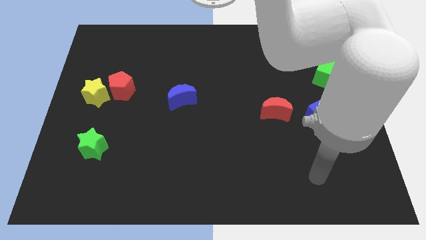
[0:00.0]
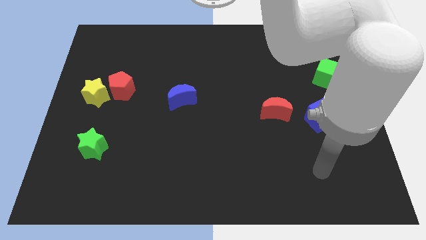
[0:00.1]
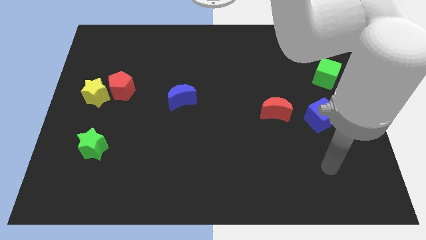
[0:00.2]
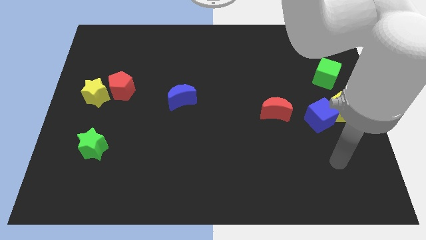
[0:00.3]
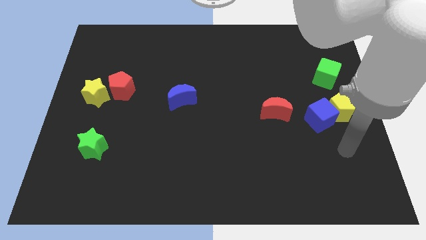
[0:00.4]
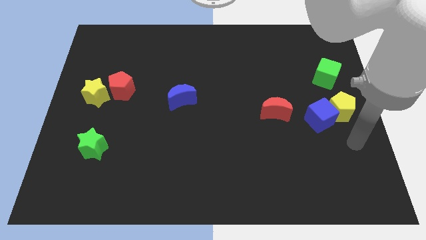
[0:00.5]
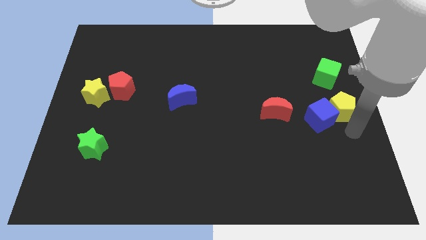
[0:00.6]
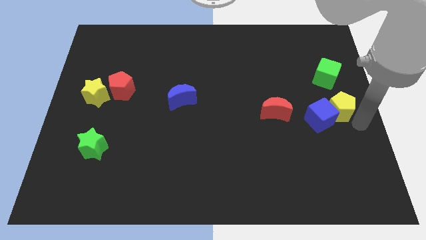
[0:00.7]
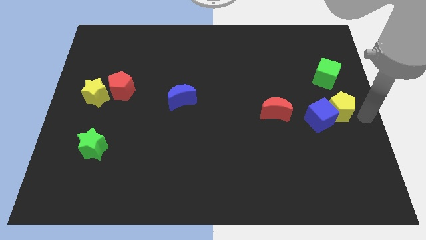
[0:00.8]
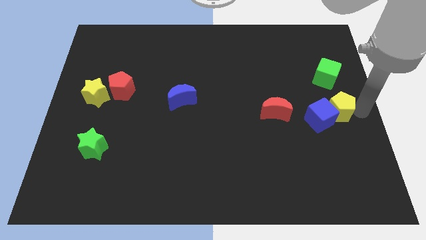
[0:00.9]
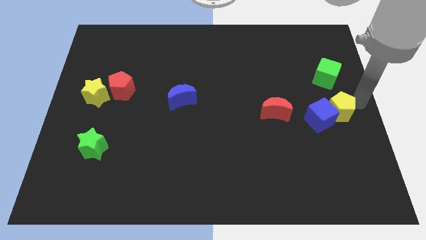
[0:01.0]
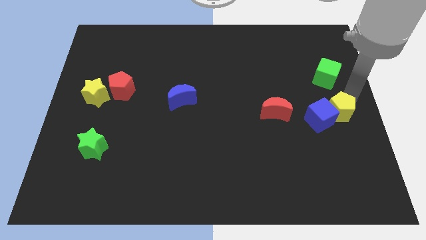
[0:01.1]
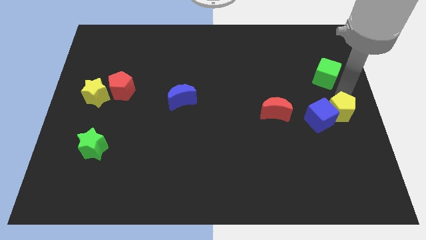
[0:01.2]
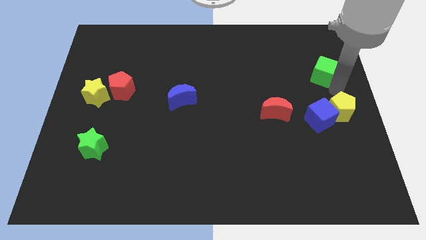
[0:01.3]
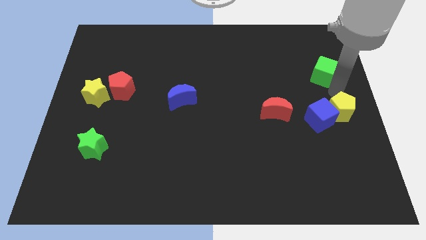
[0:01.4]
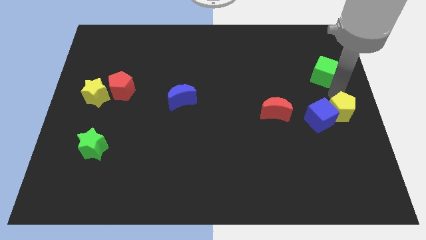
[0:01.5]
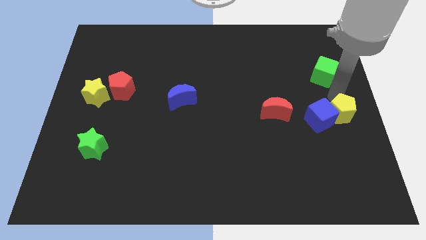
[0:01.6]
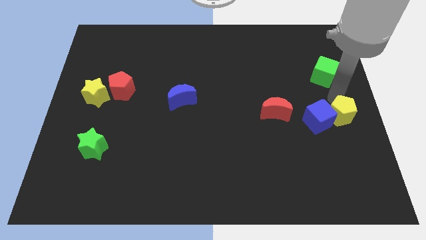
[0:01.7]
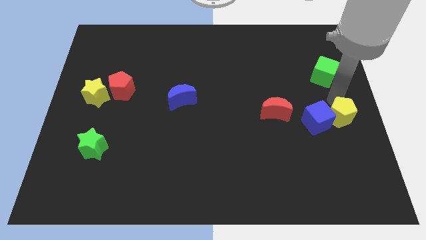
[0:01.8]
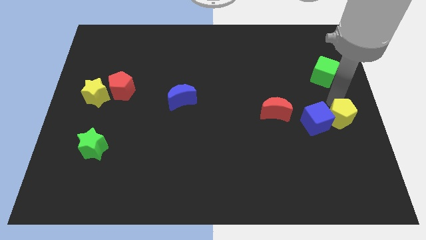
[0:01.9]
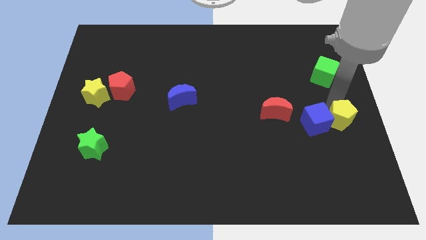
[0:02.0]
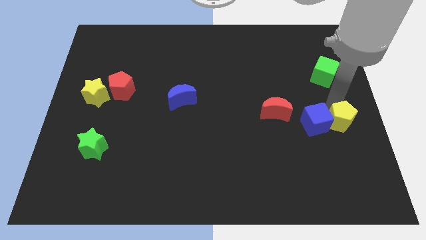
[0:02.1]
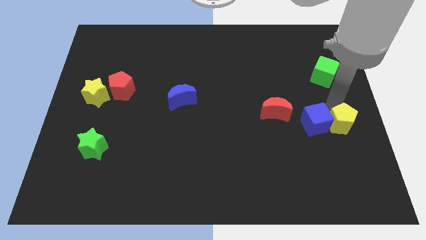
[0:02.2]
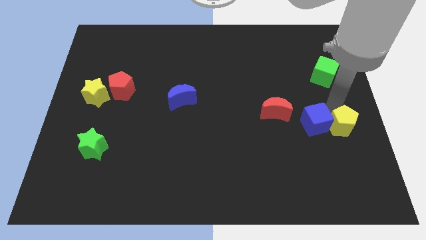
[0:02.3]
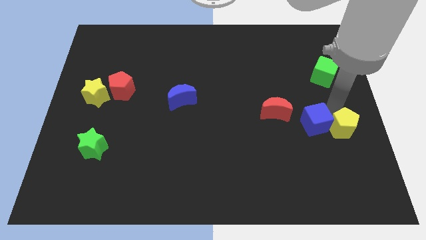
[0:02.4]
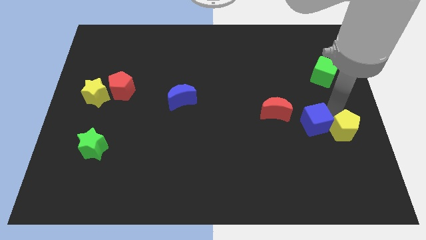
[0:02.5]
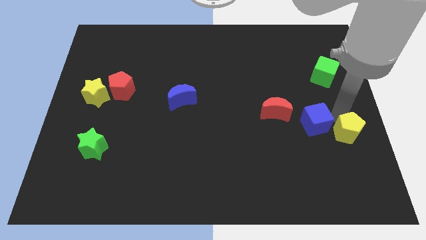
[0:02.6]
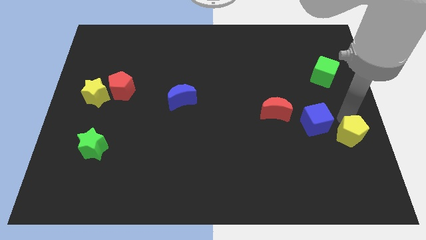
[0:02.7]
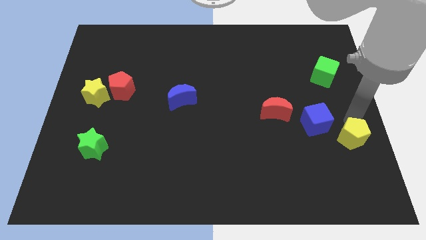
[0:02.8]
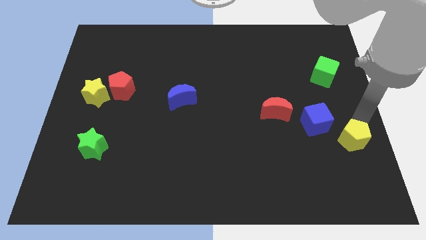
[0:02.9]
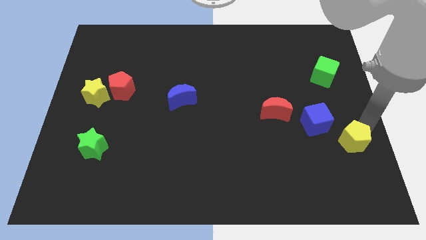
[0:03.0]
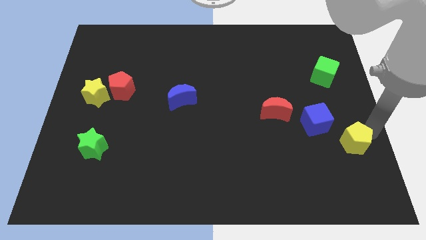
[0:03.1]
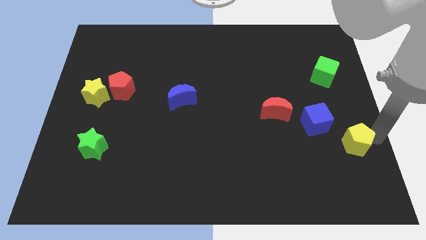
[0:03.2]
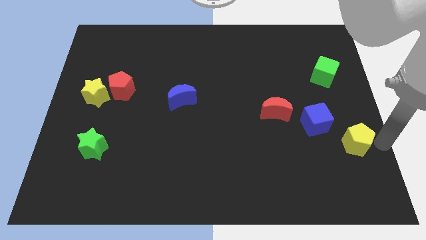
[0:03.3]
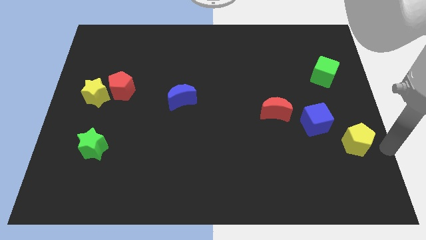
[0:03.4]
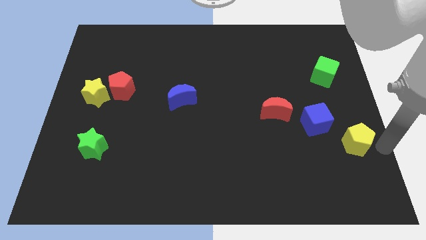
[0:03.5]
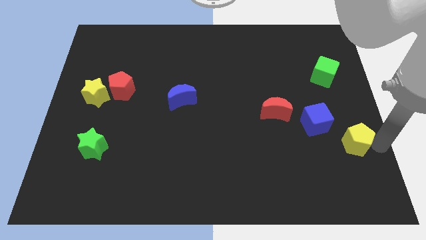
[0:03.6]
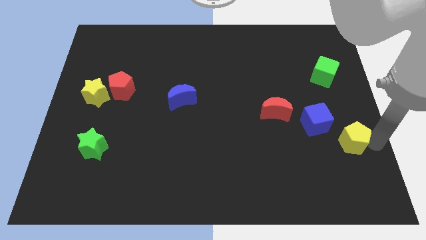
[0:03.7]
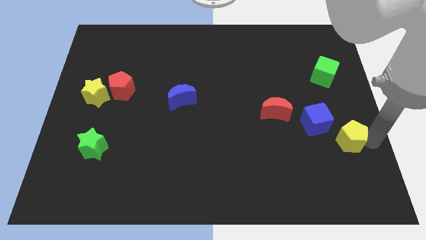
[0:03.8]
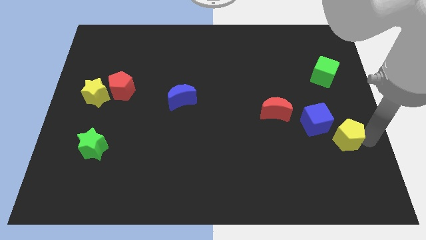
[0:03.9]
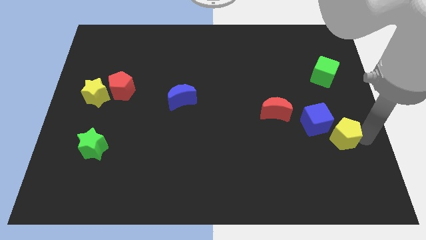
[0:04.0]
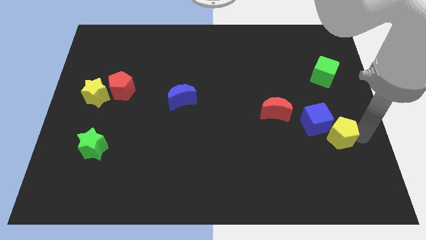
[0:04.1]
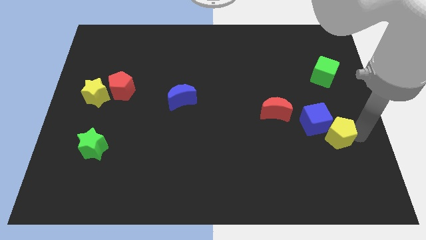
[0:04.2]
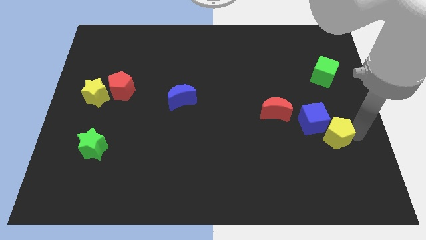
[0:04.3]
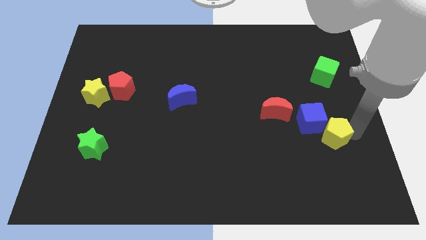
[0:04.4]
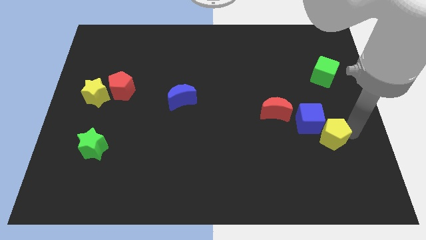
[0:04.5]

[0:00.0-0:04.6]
slightly slide the yellow pentagon down and left

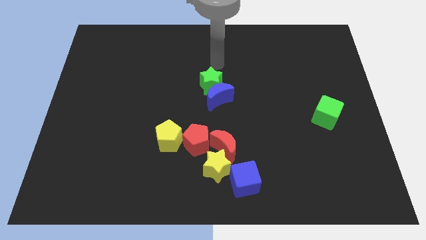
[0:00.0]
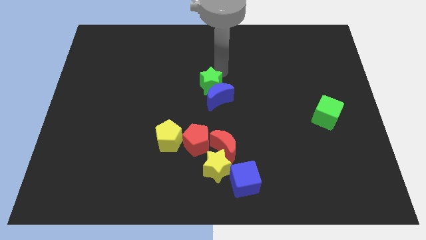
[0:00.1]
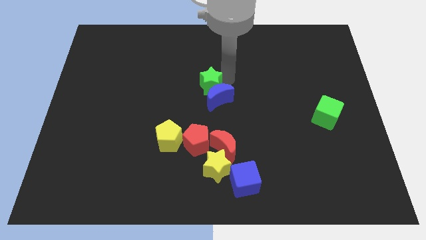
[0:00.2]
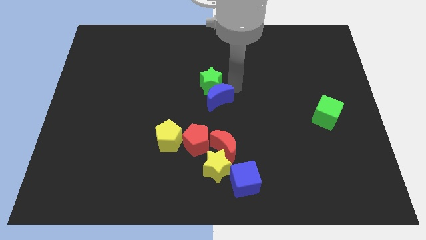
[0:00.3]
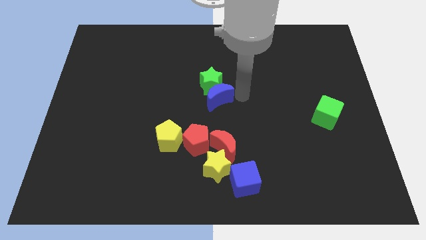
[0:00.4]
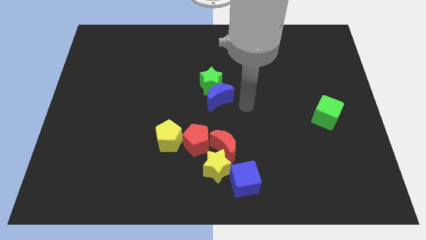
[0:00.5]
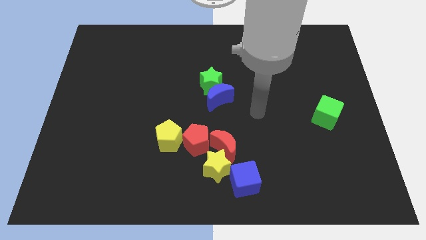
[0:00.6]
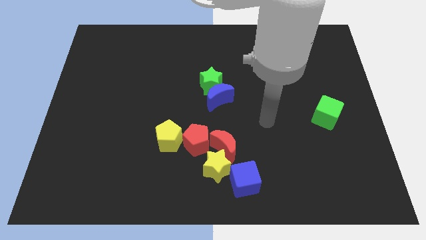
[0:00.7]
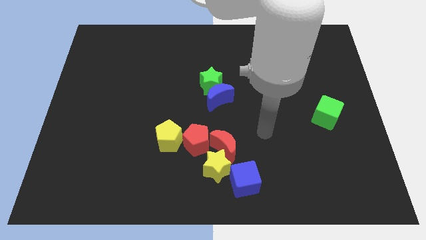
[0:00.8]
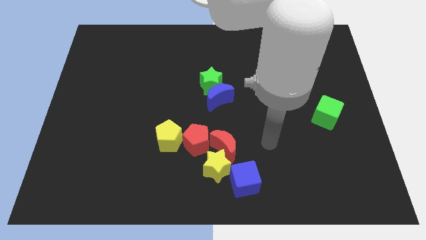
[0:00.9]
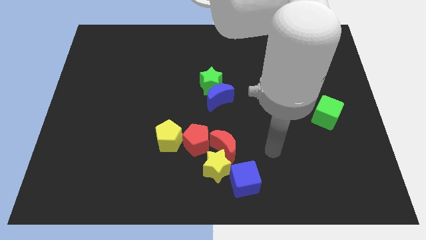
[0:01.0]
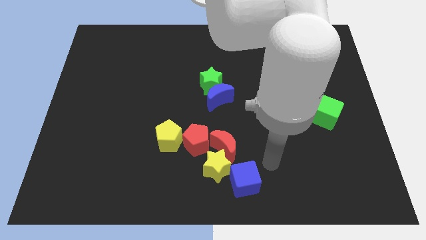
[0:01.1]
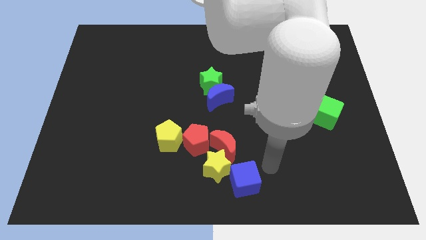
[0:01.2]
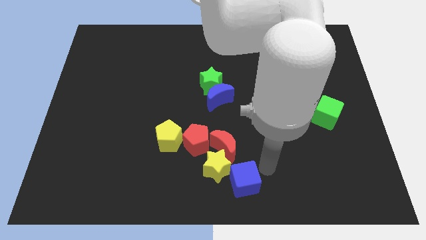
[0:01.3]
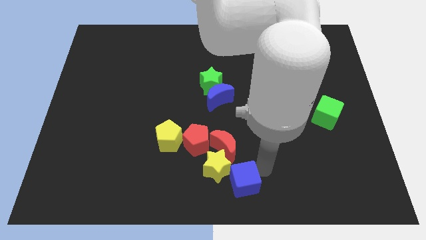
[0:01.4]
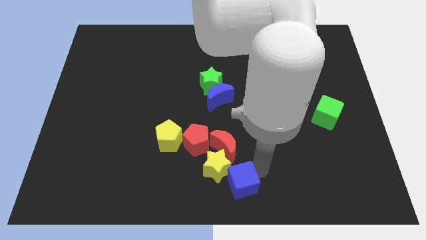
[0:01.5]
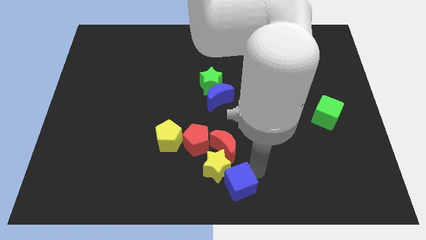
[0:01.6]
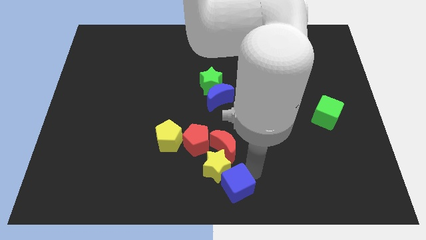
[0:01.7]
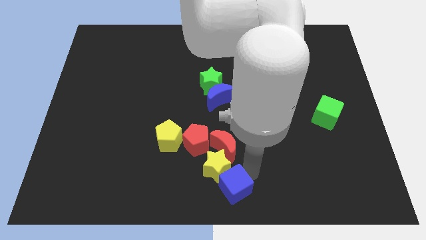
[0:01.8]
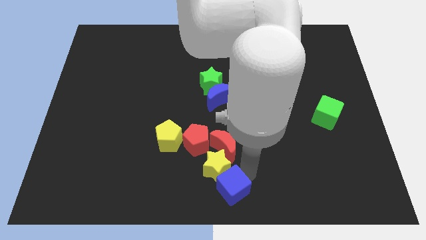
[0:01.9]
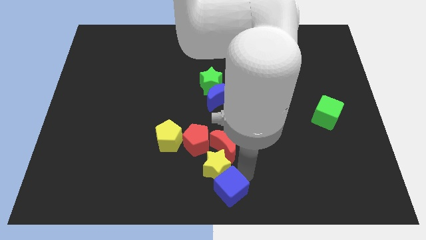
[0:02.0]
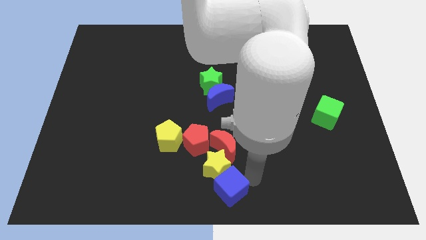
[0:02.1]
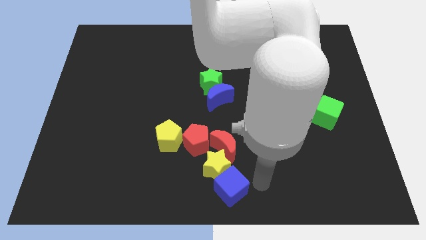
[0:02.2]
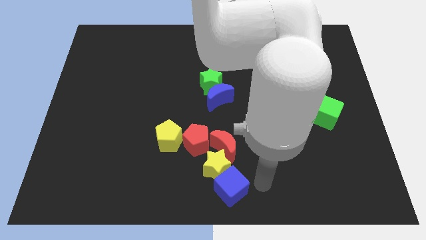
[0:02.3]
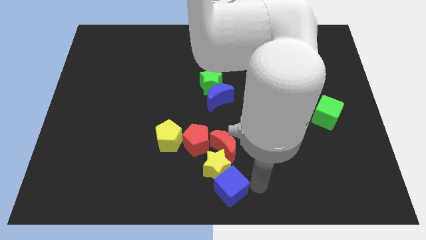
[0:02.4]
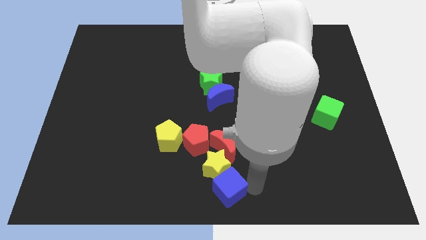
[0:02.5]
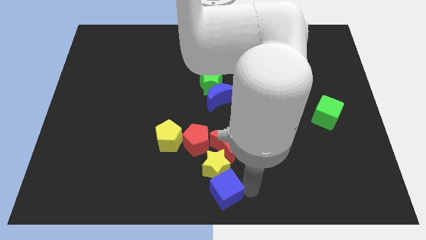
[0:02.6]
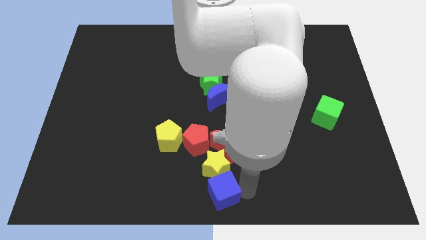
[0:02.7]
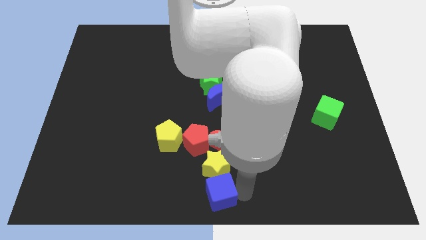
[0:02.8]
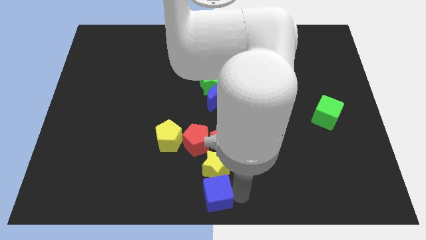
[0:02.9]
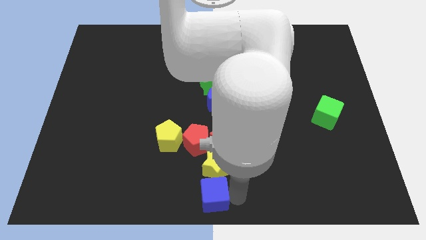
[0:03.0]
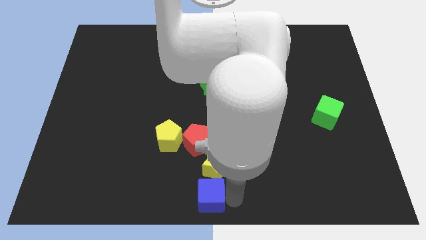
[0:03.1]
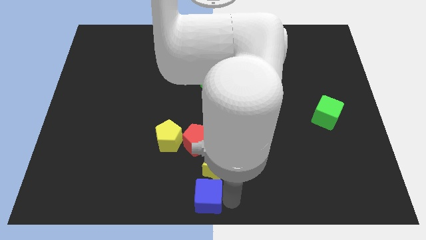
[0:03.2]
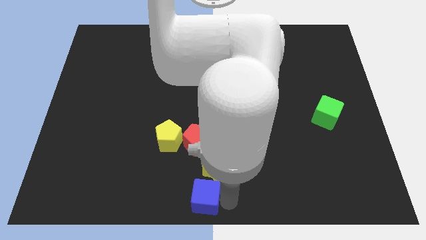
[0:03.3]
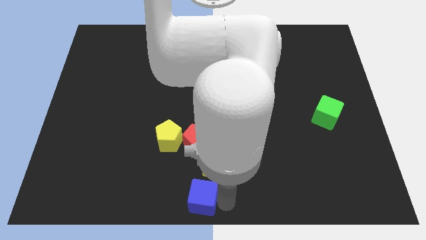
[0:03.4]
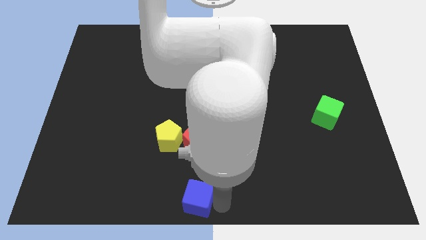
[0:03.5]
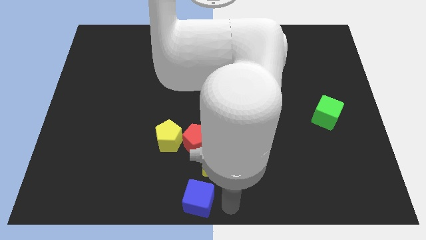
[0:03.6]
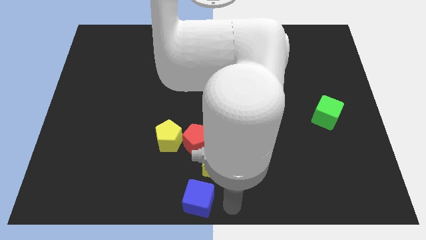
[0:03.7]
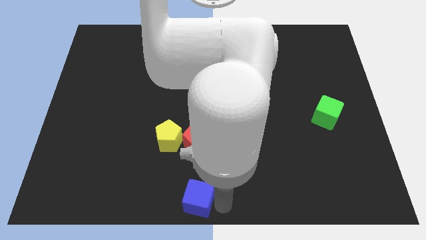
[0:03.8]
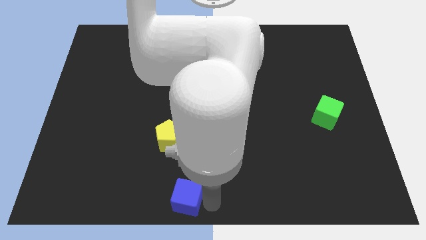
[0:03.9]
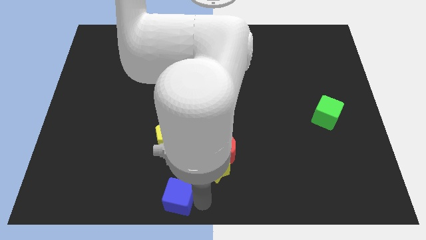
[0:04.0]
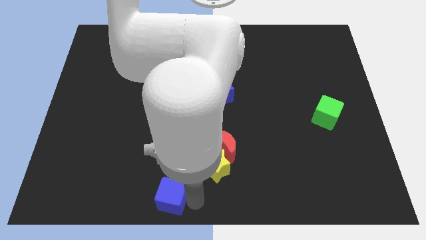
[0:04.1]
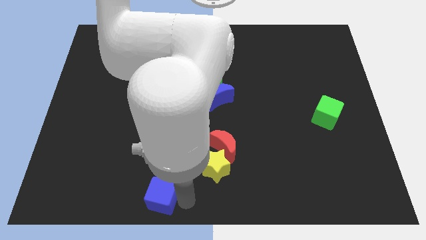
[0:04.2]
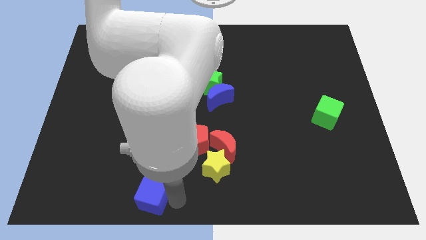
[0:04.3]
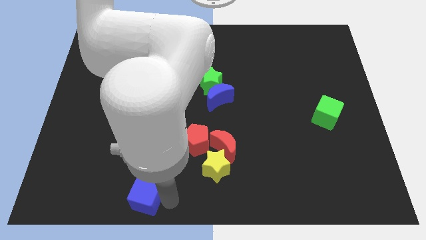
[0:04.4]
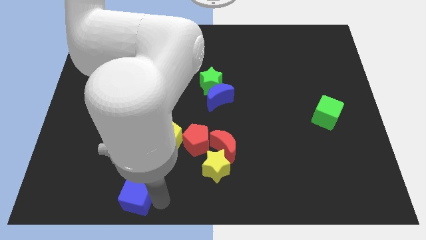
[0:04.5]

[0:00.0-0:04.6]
slide the blue cube to the left
